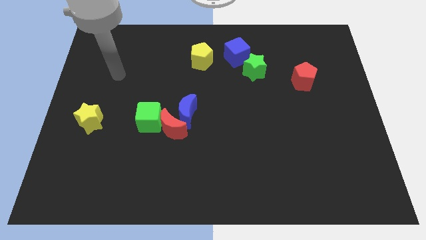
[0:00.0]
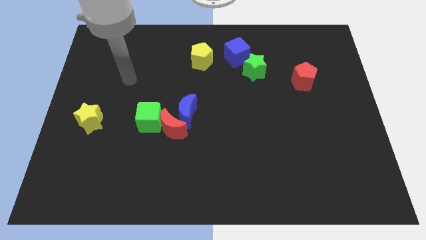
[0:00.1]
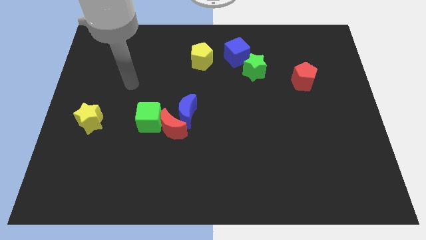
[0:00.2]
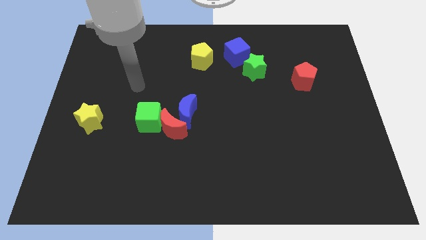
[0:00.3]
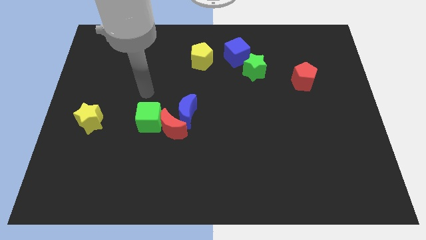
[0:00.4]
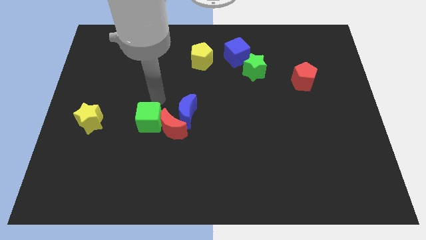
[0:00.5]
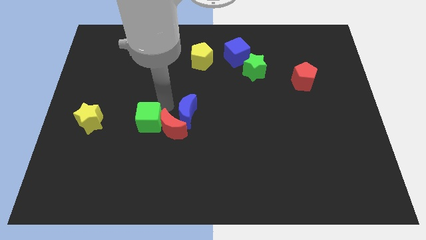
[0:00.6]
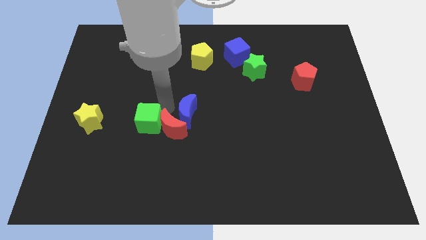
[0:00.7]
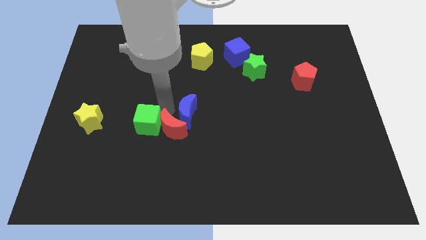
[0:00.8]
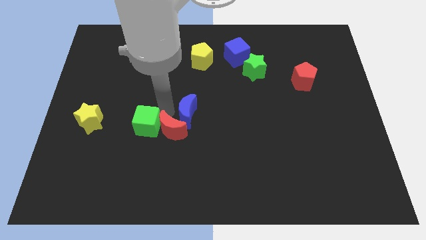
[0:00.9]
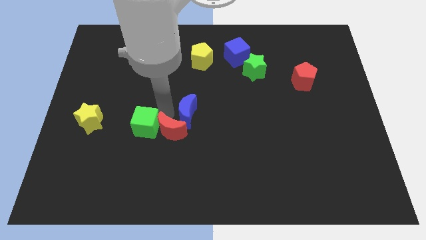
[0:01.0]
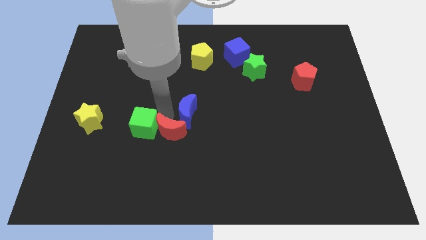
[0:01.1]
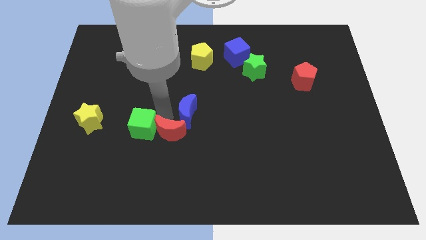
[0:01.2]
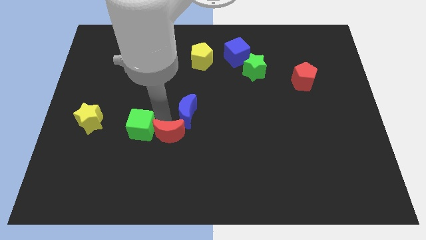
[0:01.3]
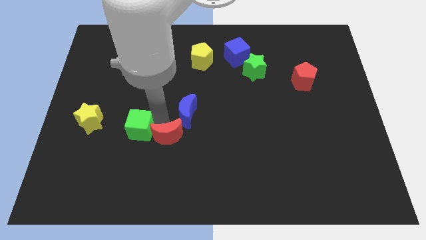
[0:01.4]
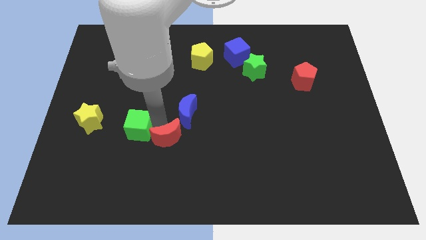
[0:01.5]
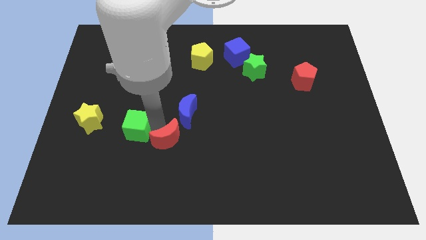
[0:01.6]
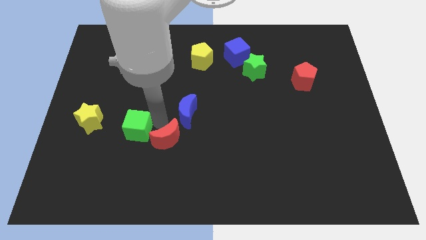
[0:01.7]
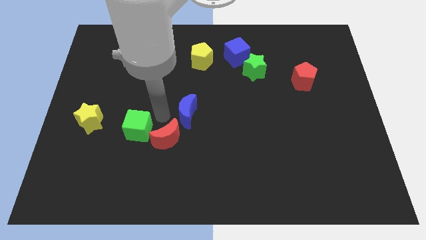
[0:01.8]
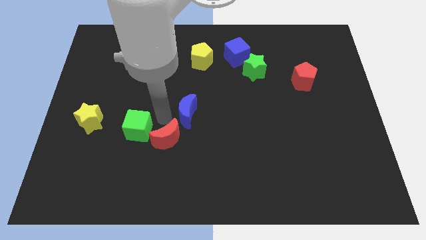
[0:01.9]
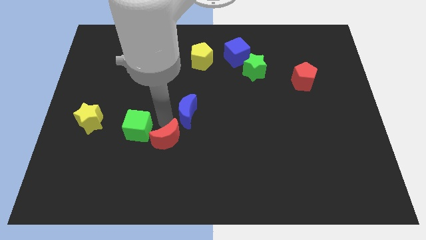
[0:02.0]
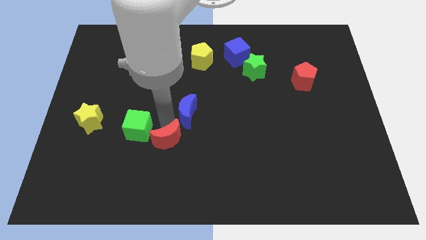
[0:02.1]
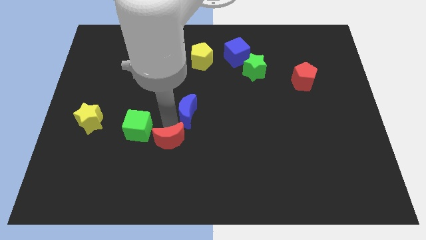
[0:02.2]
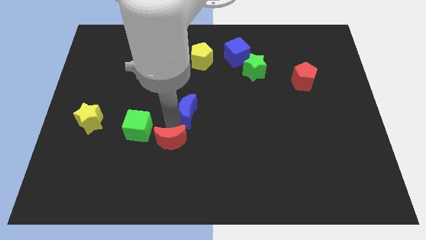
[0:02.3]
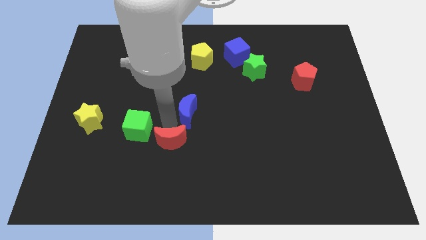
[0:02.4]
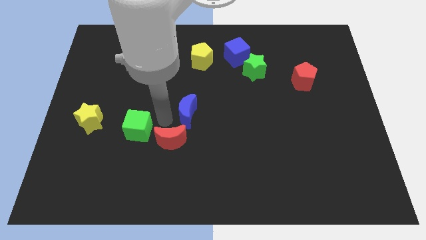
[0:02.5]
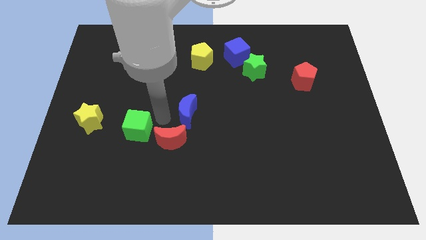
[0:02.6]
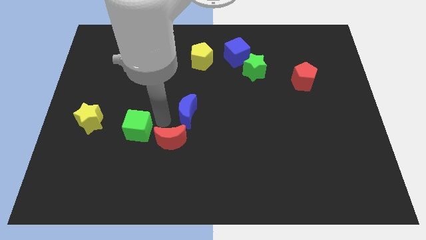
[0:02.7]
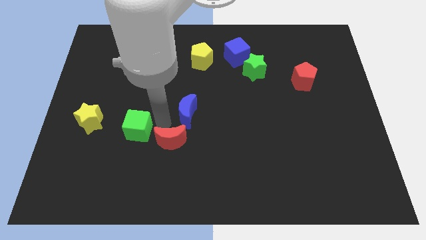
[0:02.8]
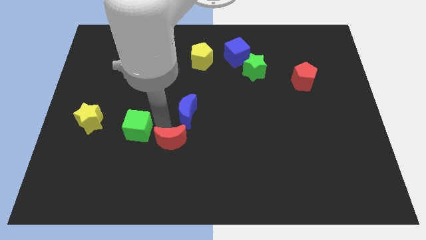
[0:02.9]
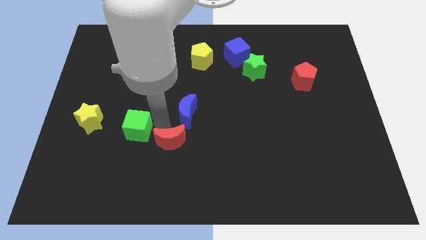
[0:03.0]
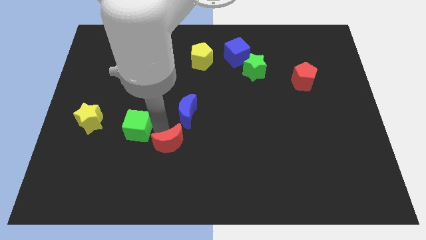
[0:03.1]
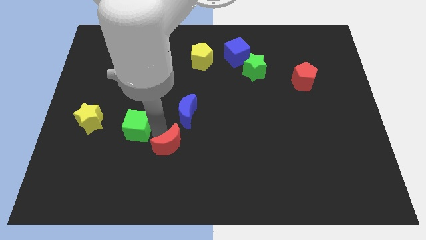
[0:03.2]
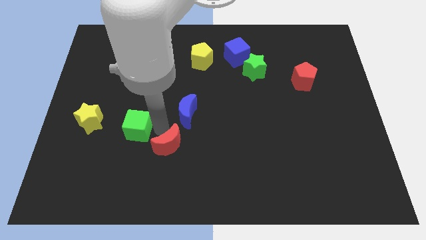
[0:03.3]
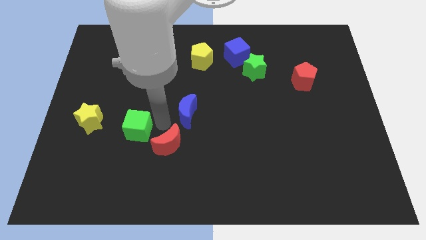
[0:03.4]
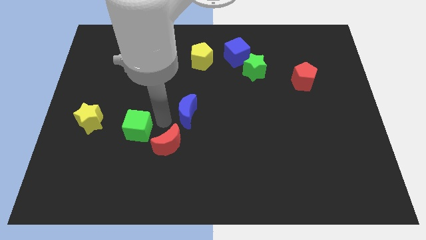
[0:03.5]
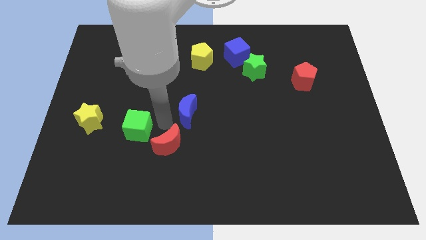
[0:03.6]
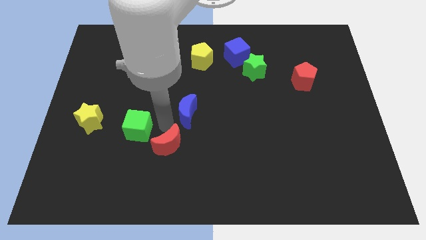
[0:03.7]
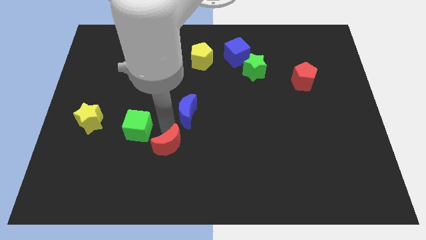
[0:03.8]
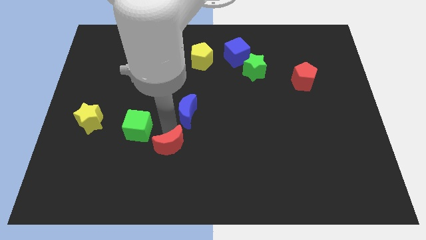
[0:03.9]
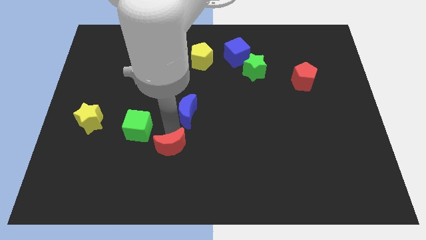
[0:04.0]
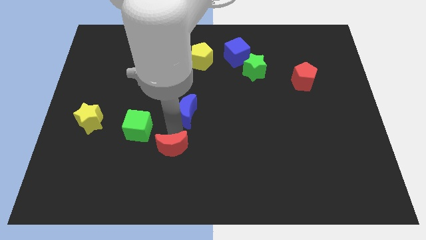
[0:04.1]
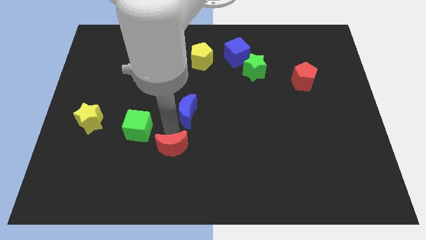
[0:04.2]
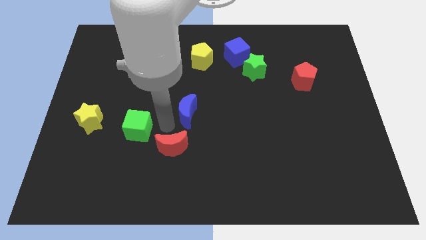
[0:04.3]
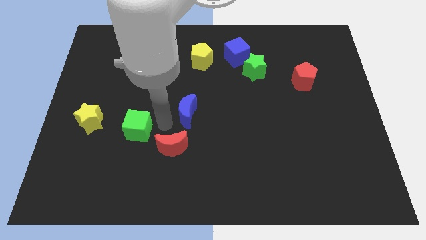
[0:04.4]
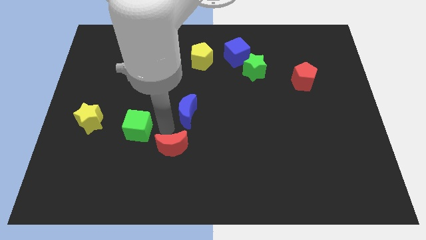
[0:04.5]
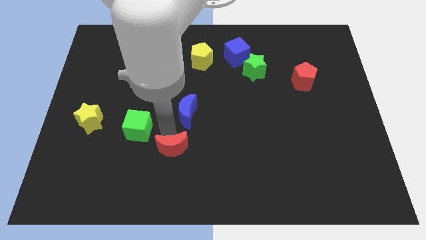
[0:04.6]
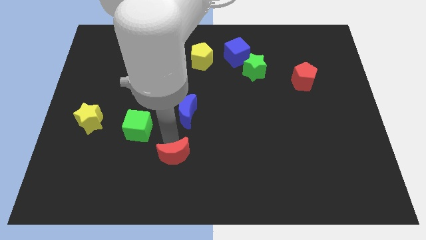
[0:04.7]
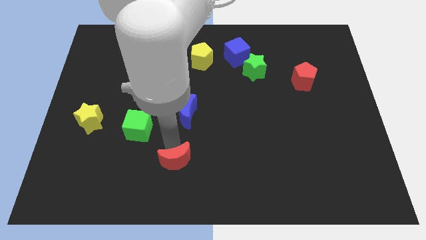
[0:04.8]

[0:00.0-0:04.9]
separate the red moon from the blue moon and green cube

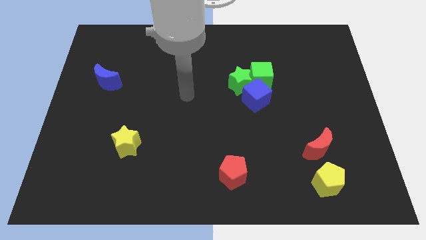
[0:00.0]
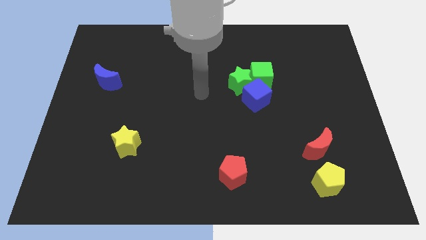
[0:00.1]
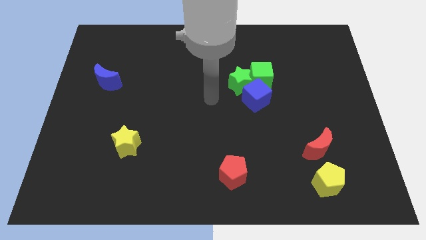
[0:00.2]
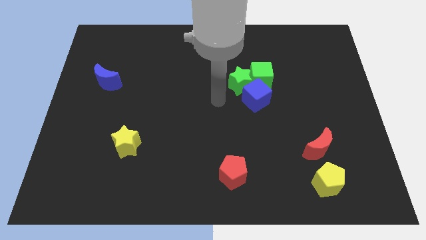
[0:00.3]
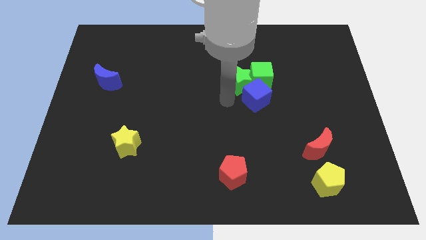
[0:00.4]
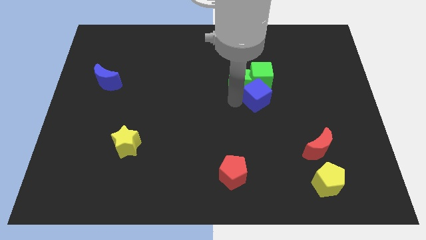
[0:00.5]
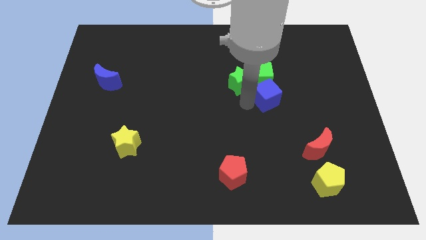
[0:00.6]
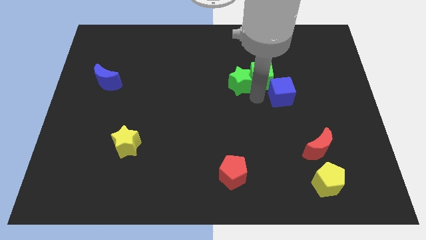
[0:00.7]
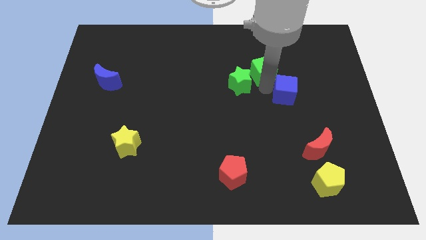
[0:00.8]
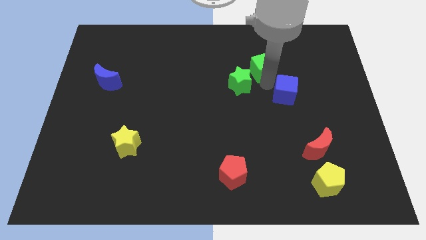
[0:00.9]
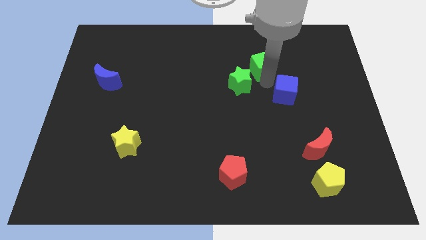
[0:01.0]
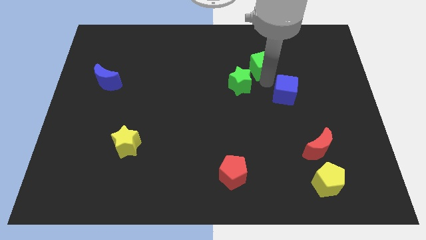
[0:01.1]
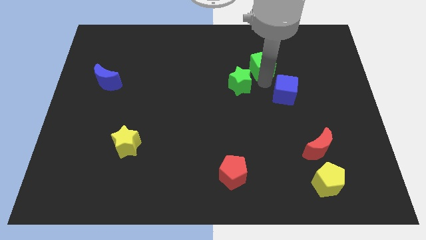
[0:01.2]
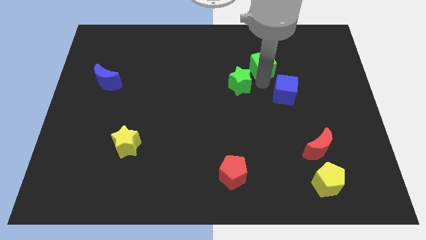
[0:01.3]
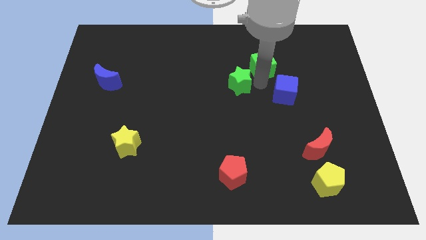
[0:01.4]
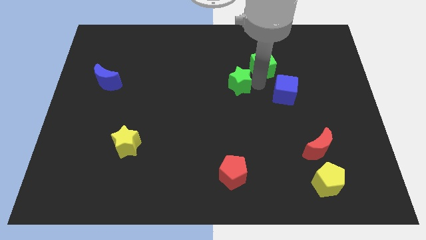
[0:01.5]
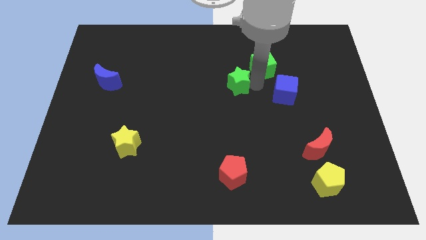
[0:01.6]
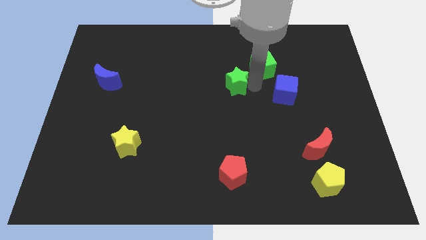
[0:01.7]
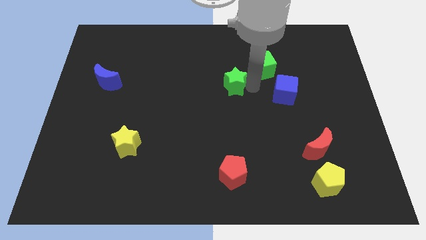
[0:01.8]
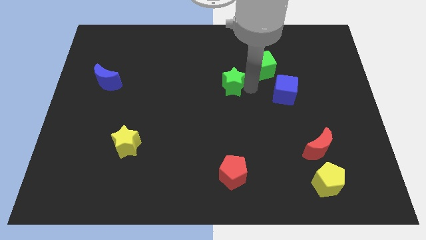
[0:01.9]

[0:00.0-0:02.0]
move the green star away from the green cube and blue cube

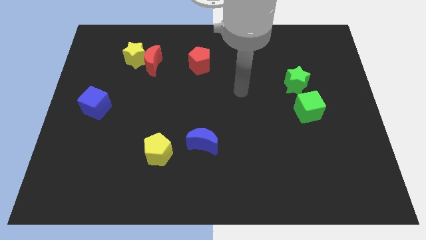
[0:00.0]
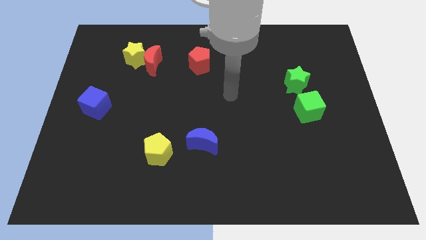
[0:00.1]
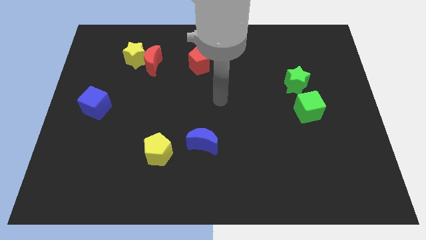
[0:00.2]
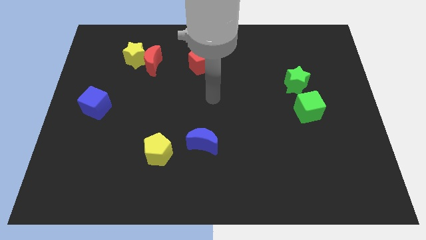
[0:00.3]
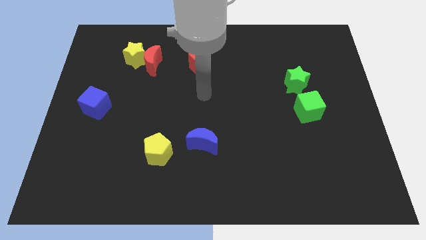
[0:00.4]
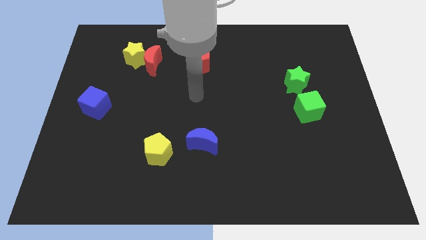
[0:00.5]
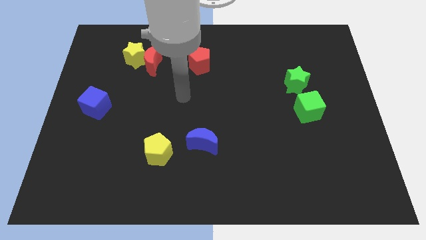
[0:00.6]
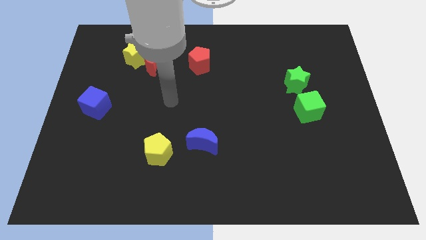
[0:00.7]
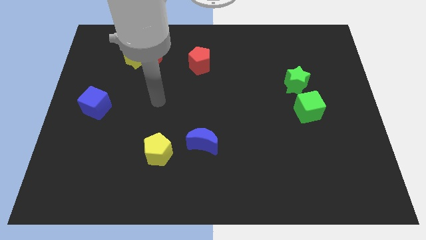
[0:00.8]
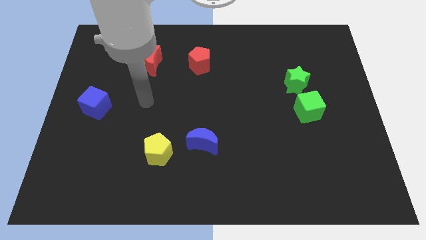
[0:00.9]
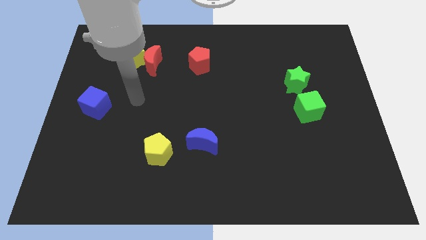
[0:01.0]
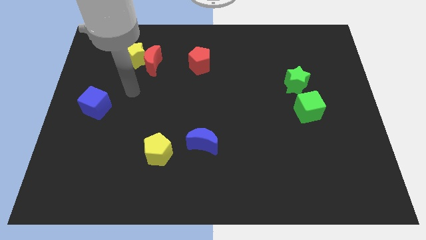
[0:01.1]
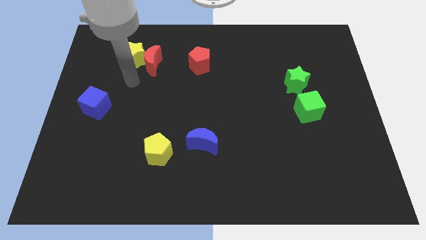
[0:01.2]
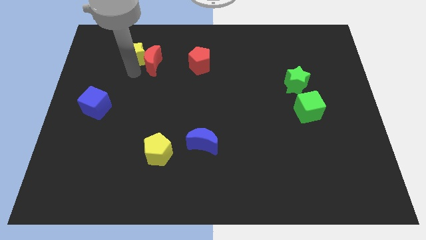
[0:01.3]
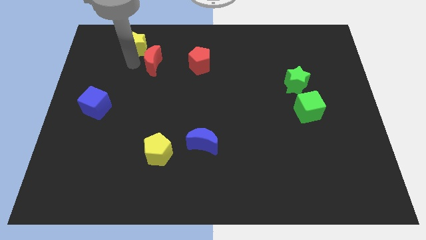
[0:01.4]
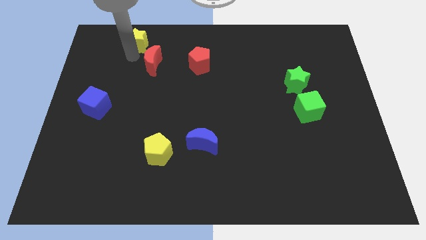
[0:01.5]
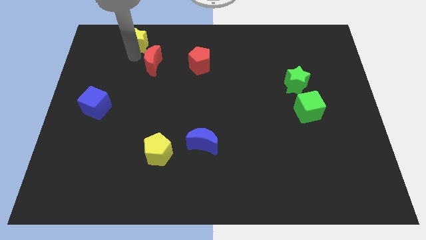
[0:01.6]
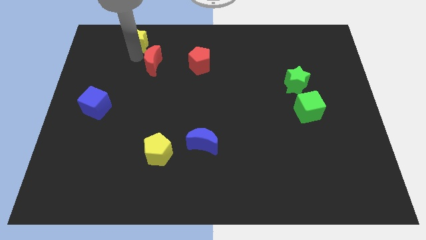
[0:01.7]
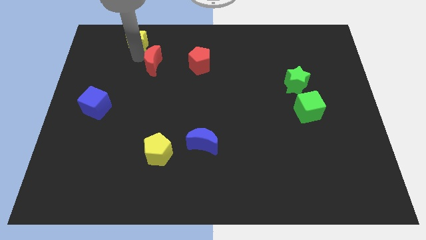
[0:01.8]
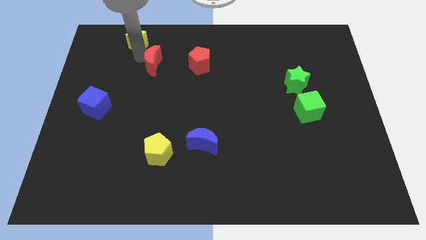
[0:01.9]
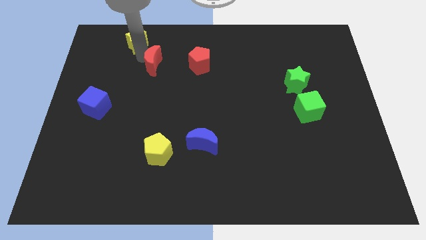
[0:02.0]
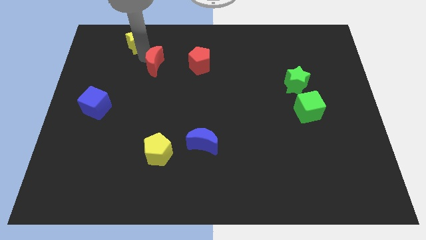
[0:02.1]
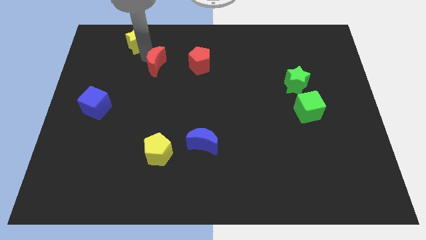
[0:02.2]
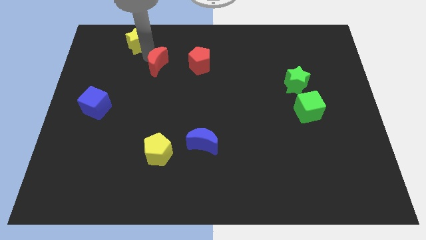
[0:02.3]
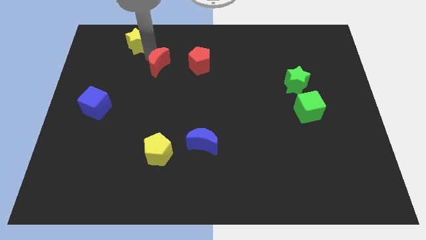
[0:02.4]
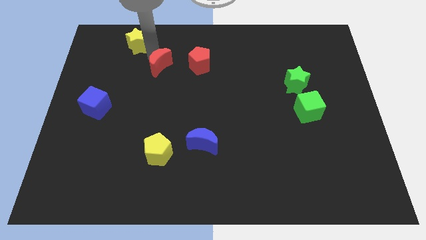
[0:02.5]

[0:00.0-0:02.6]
pull the red moon apart from the yellow star
